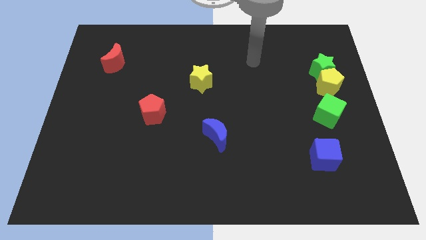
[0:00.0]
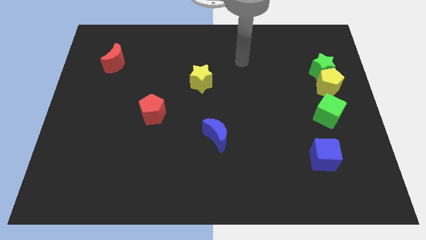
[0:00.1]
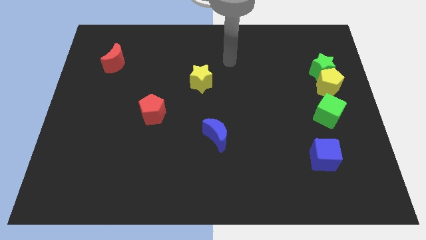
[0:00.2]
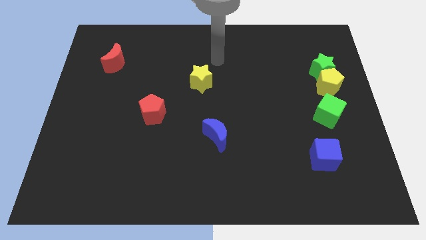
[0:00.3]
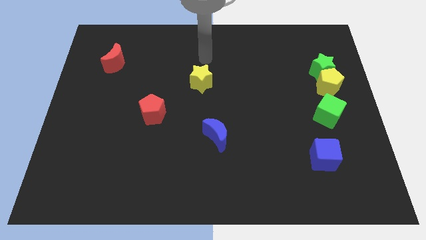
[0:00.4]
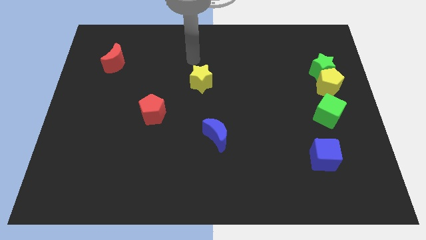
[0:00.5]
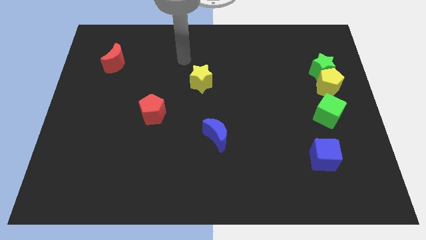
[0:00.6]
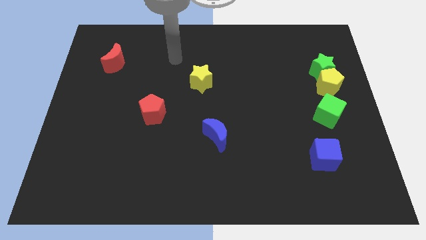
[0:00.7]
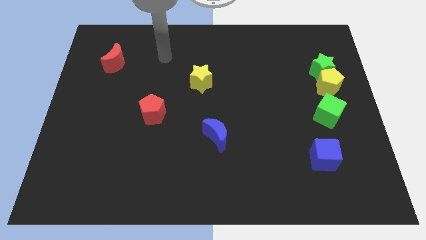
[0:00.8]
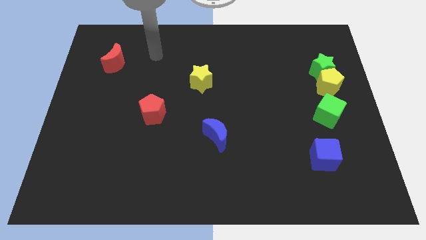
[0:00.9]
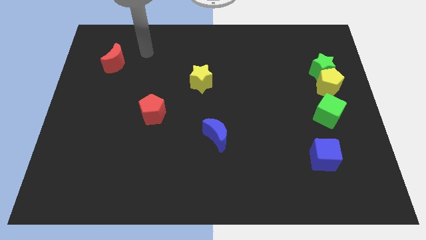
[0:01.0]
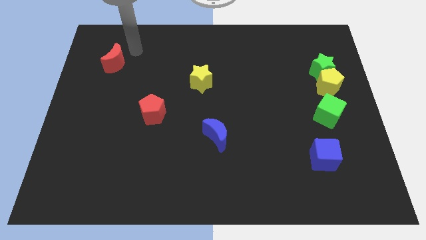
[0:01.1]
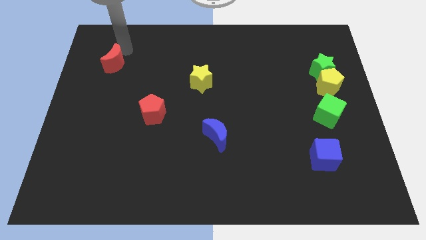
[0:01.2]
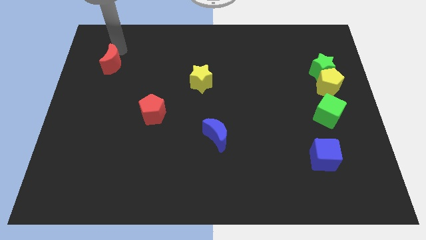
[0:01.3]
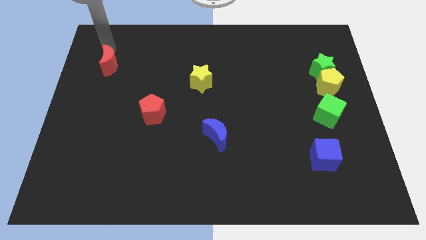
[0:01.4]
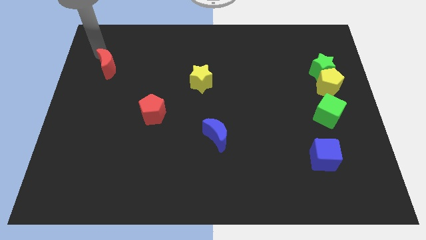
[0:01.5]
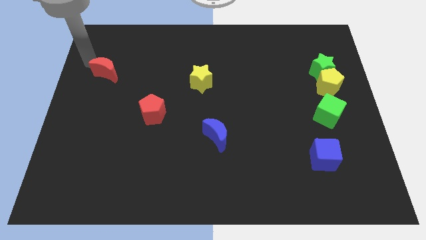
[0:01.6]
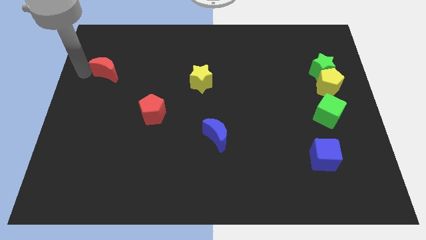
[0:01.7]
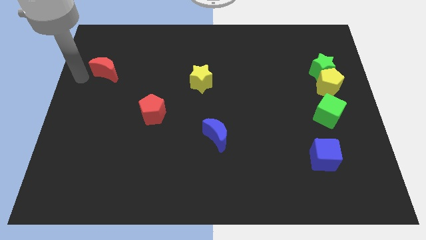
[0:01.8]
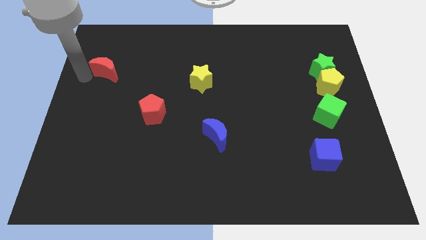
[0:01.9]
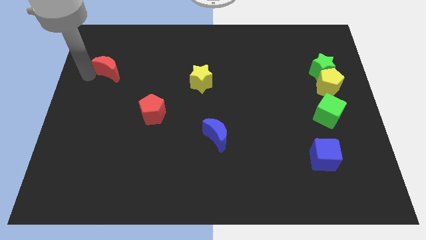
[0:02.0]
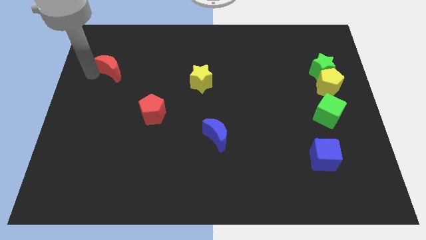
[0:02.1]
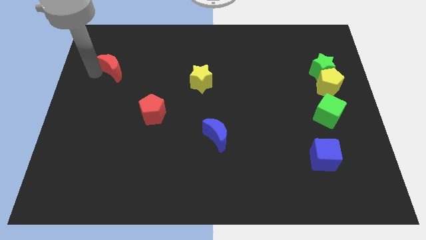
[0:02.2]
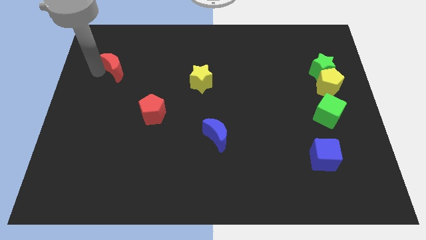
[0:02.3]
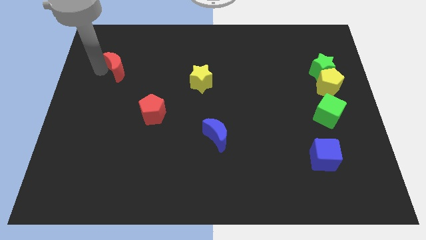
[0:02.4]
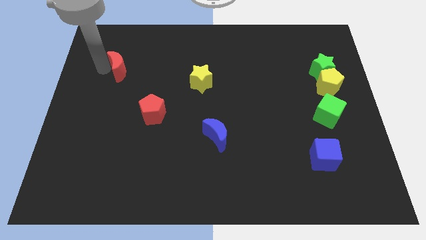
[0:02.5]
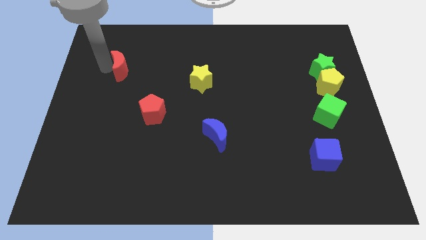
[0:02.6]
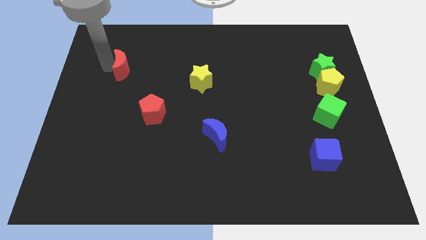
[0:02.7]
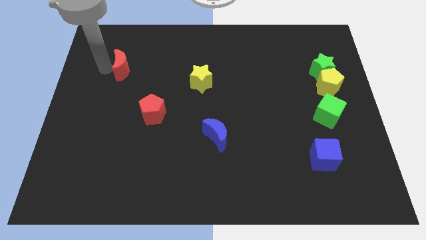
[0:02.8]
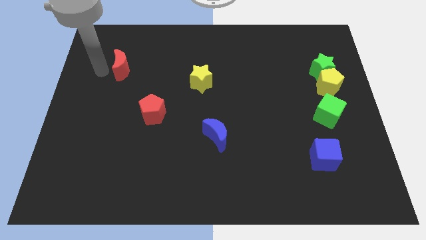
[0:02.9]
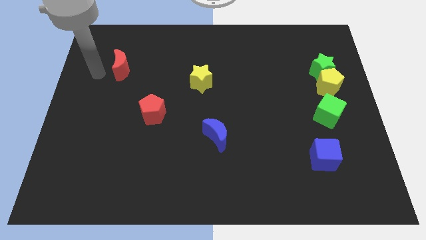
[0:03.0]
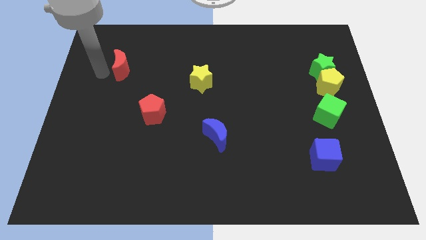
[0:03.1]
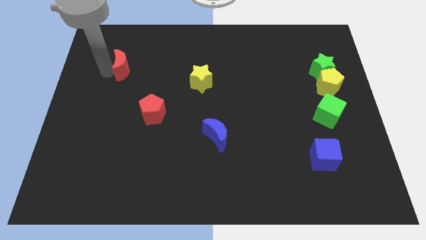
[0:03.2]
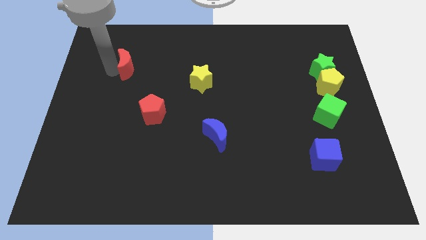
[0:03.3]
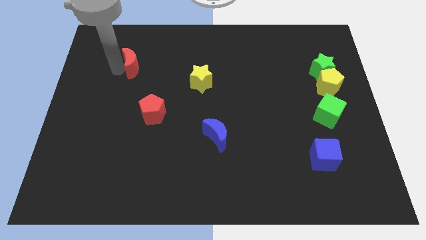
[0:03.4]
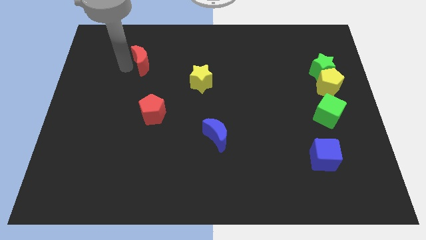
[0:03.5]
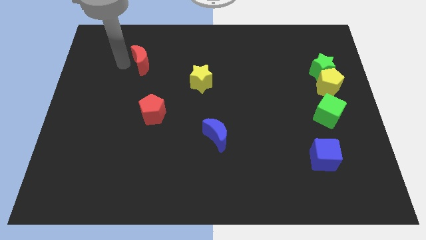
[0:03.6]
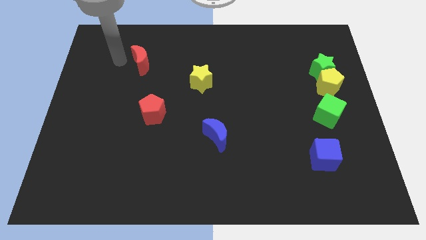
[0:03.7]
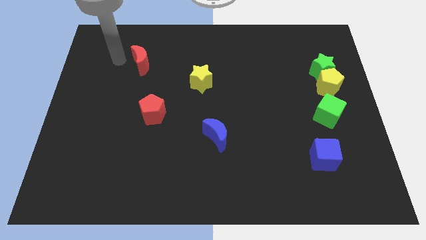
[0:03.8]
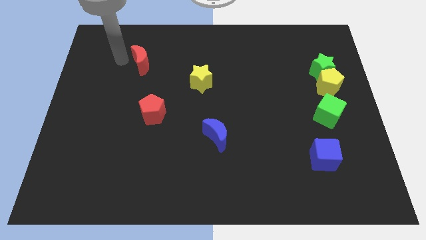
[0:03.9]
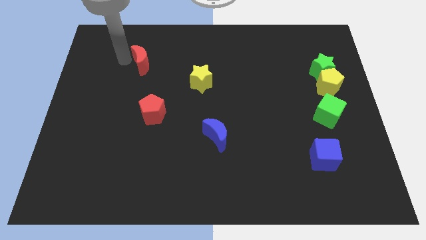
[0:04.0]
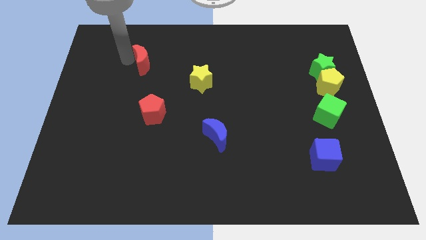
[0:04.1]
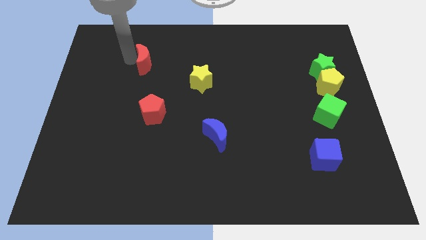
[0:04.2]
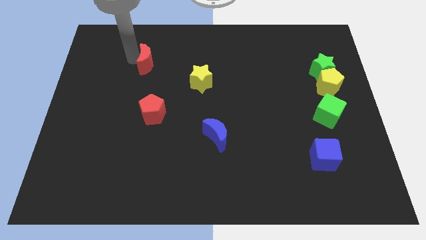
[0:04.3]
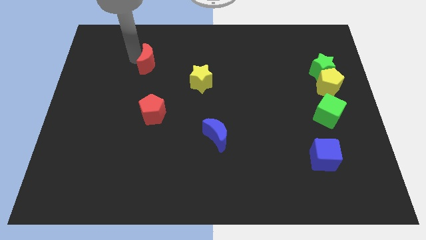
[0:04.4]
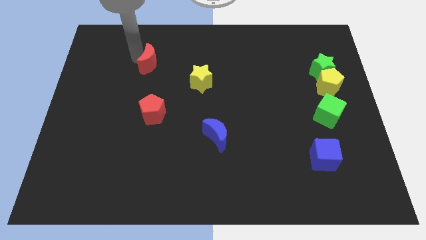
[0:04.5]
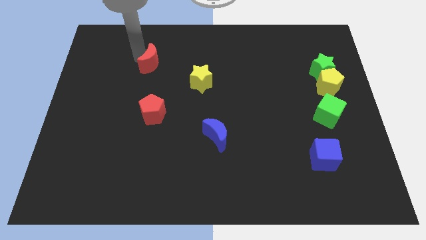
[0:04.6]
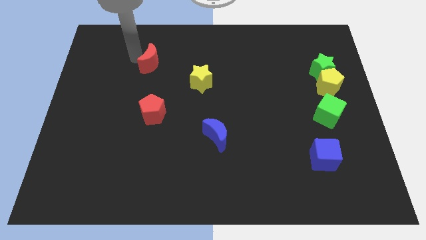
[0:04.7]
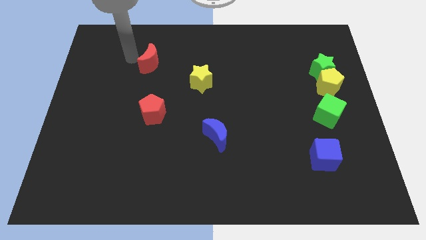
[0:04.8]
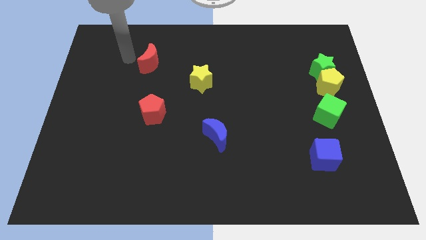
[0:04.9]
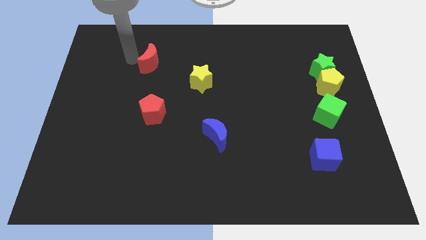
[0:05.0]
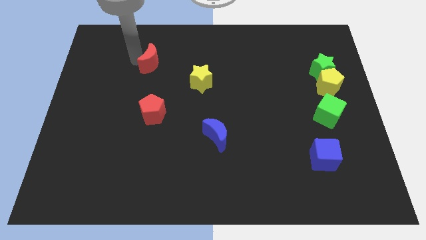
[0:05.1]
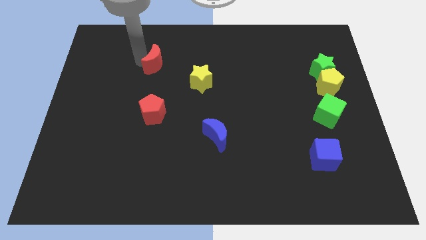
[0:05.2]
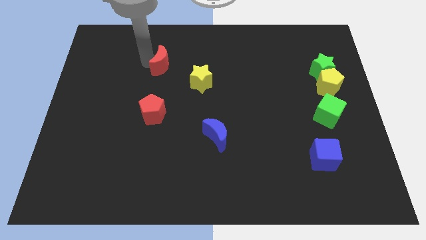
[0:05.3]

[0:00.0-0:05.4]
push the red moon to the top left of the yellow star

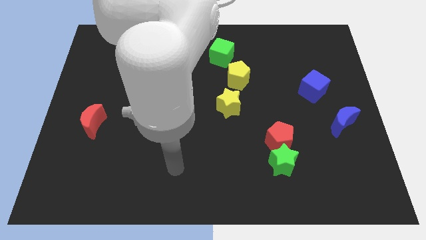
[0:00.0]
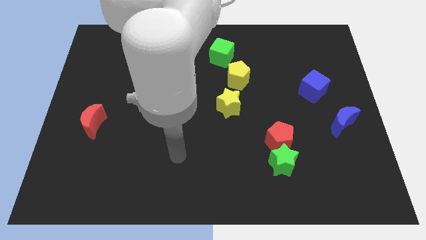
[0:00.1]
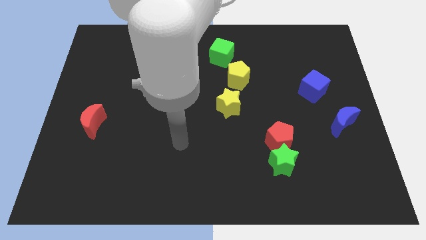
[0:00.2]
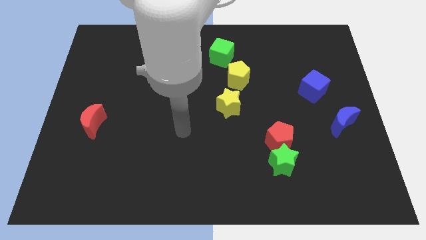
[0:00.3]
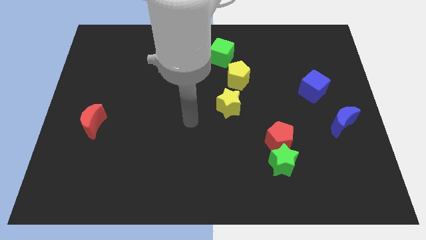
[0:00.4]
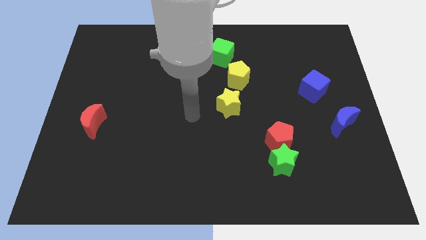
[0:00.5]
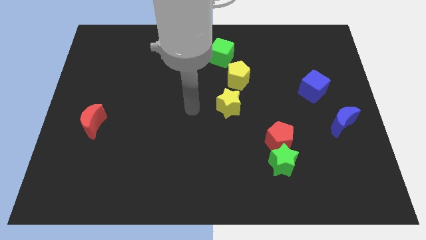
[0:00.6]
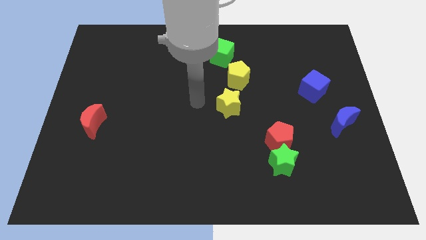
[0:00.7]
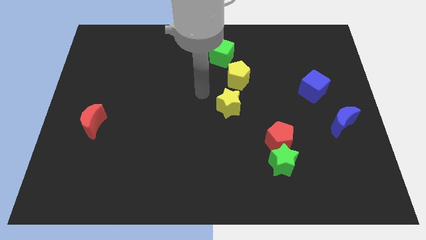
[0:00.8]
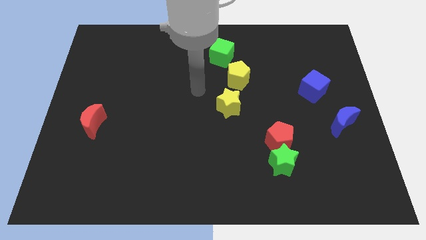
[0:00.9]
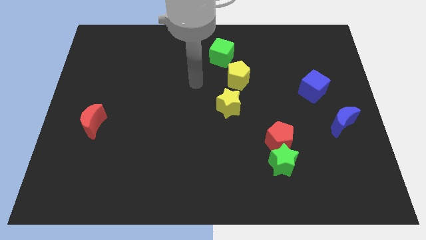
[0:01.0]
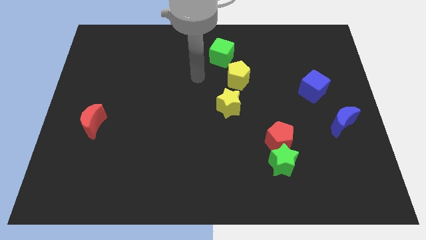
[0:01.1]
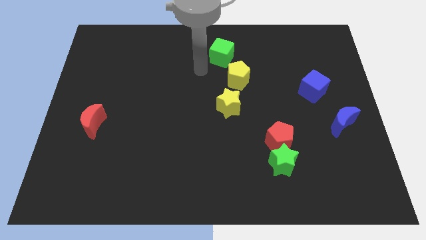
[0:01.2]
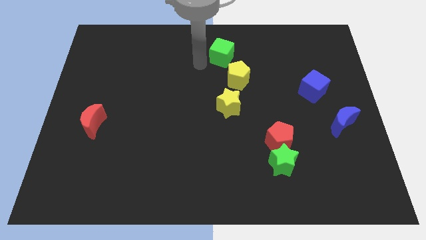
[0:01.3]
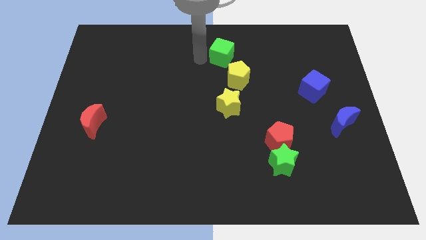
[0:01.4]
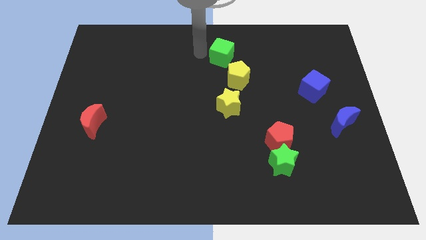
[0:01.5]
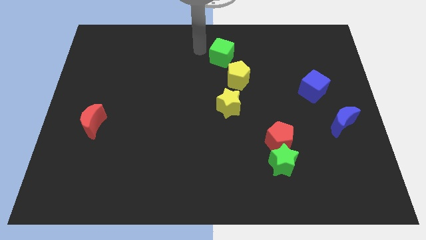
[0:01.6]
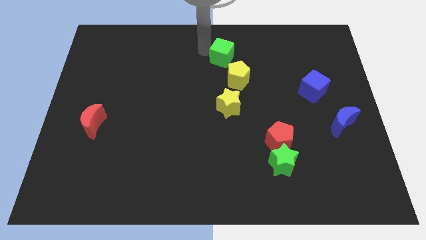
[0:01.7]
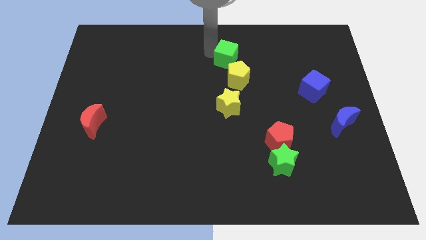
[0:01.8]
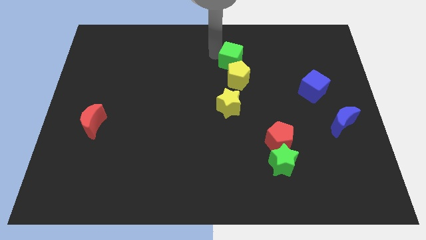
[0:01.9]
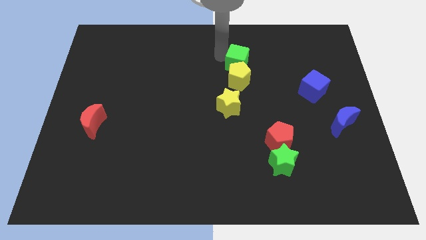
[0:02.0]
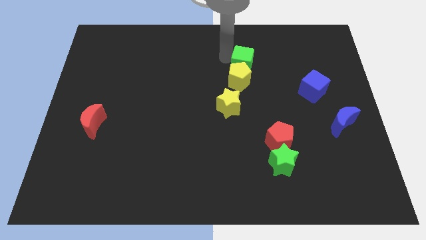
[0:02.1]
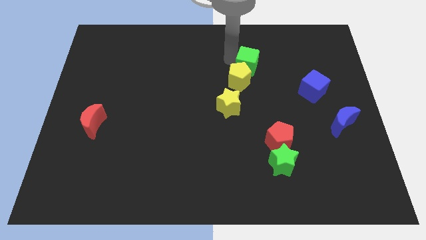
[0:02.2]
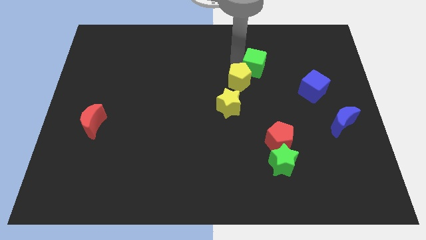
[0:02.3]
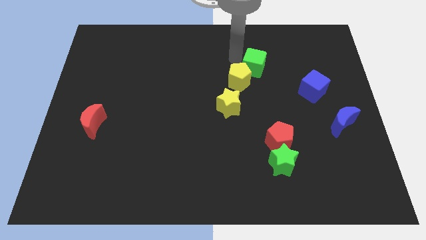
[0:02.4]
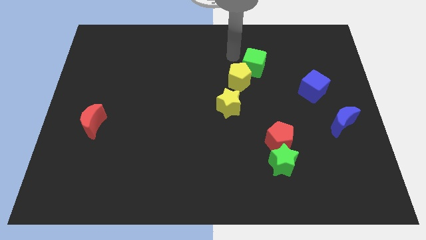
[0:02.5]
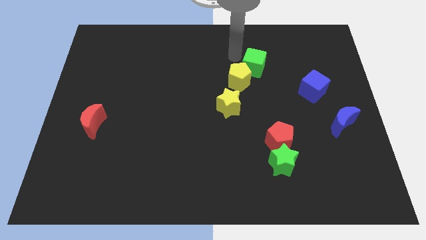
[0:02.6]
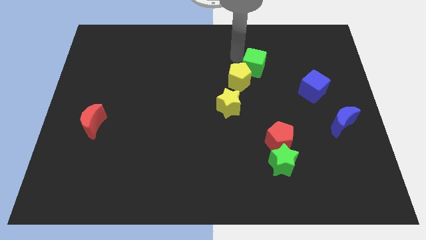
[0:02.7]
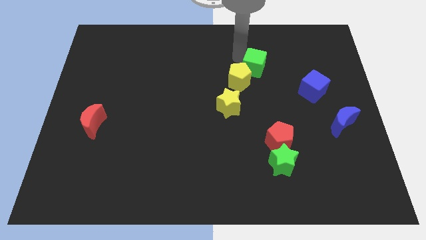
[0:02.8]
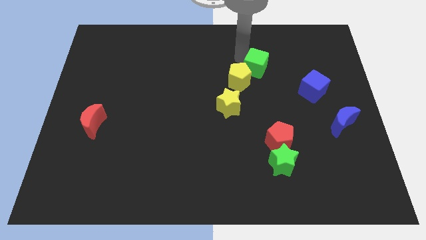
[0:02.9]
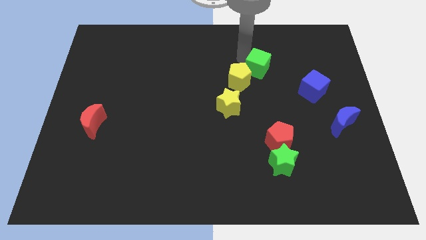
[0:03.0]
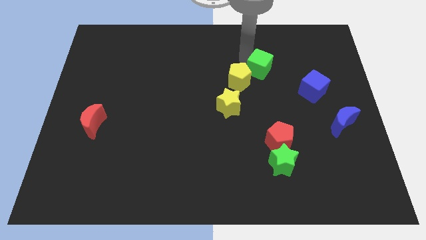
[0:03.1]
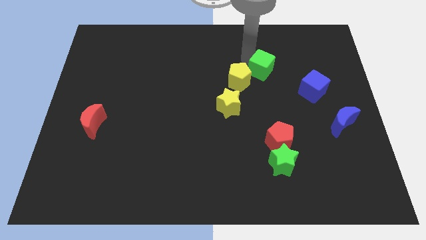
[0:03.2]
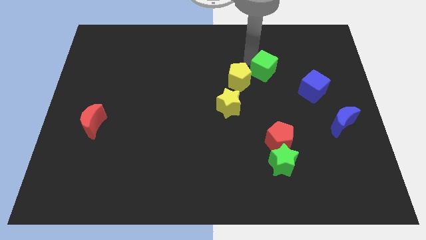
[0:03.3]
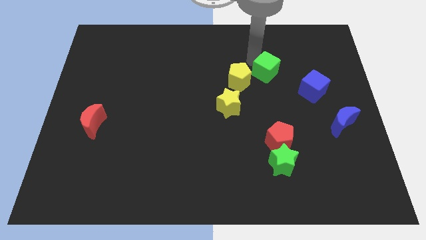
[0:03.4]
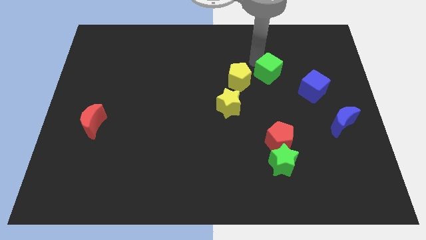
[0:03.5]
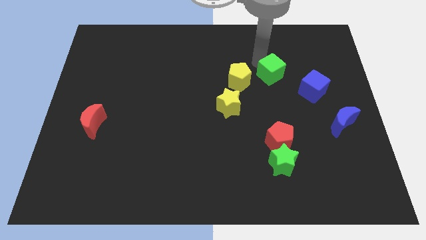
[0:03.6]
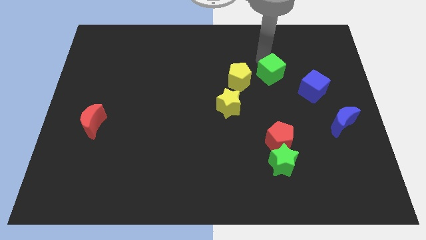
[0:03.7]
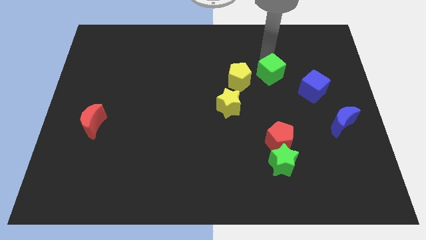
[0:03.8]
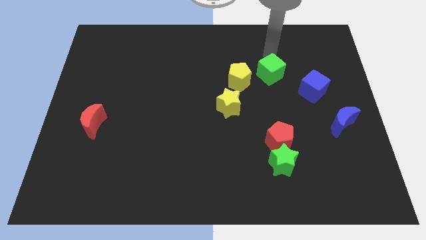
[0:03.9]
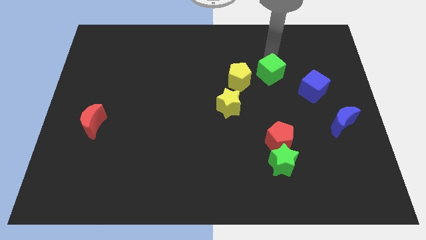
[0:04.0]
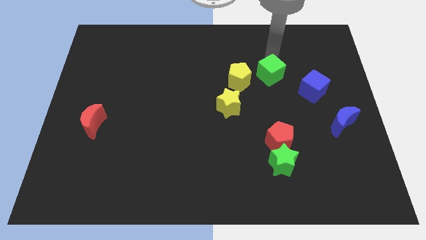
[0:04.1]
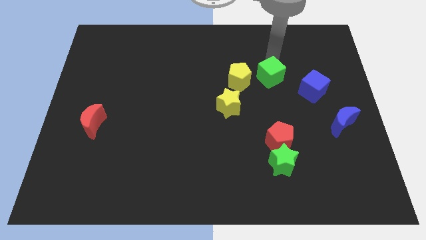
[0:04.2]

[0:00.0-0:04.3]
slide the green cube to the left of the blue cube
